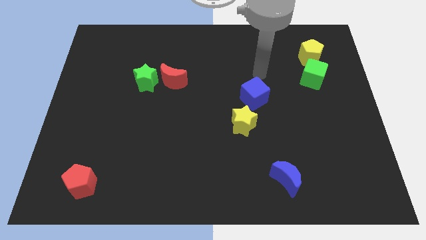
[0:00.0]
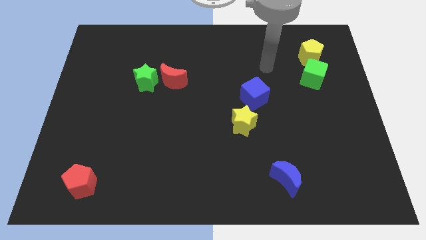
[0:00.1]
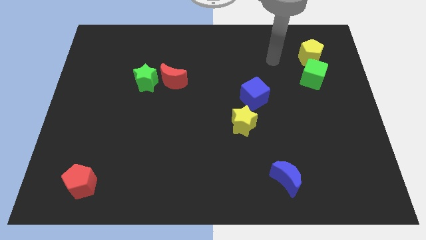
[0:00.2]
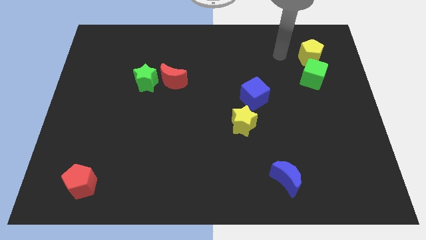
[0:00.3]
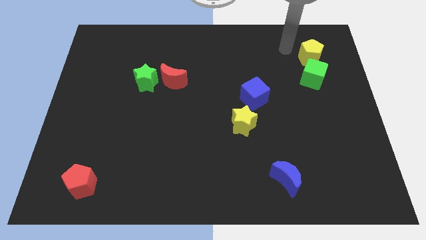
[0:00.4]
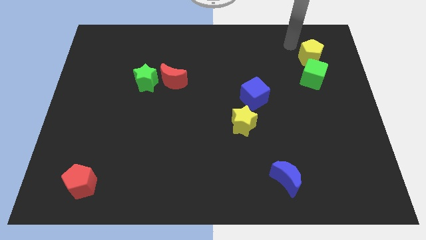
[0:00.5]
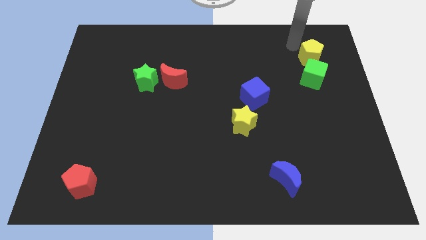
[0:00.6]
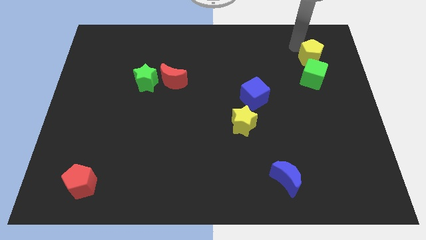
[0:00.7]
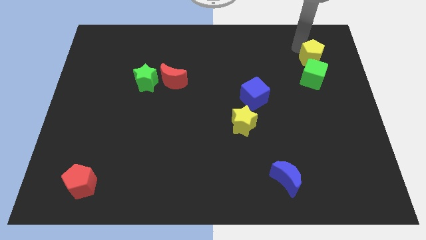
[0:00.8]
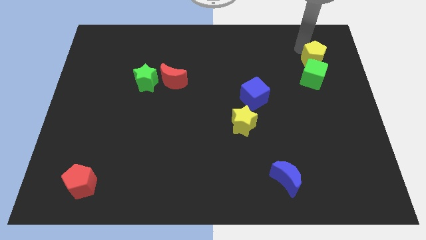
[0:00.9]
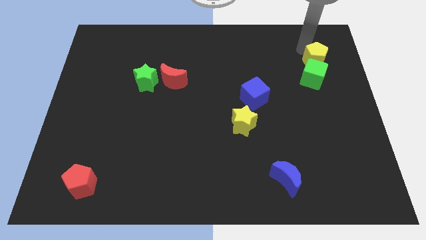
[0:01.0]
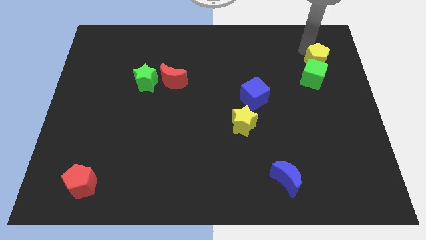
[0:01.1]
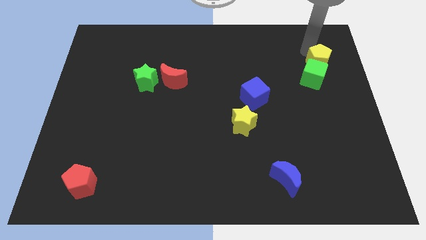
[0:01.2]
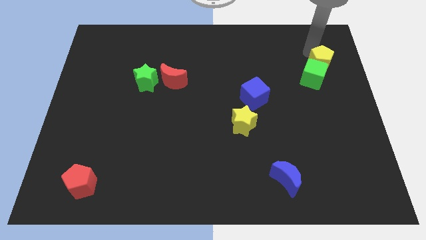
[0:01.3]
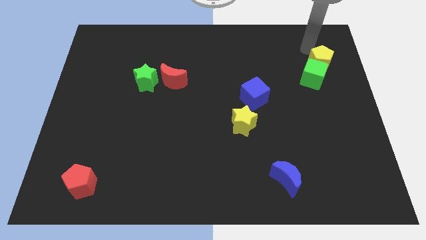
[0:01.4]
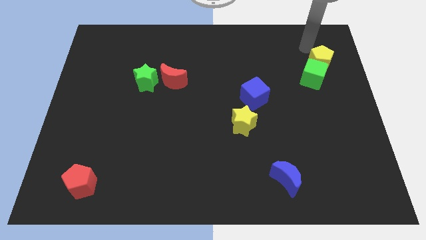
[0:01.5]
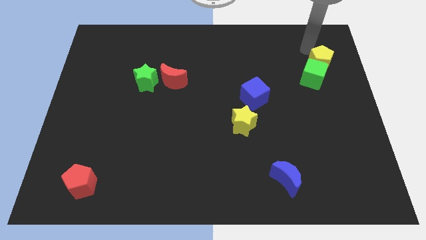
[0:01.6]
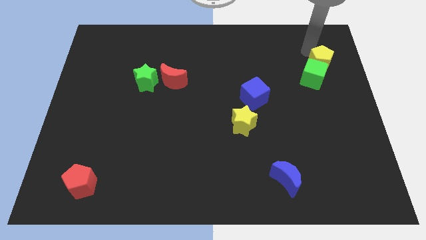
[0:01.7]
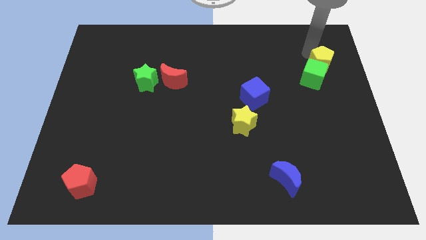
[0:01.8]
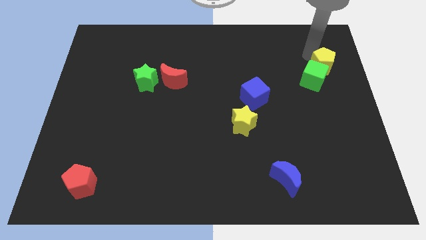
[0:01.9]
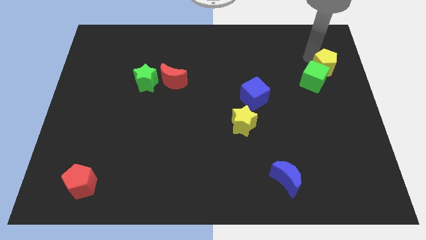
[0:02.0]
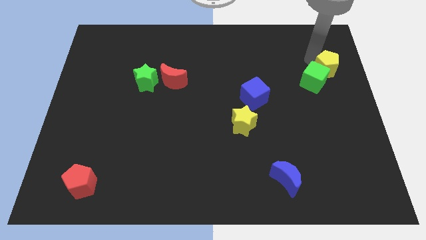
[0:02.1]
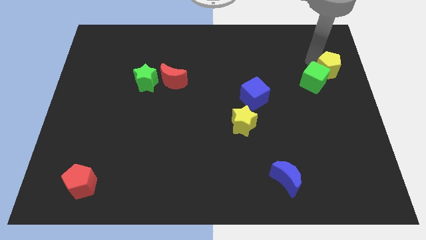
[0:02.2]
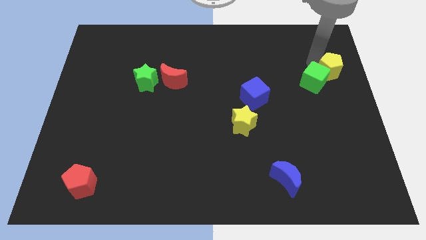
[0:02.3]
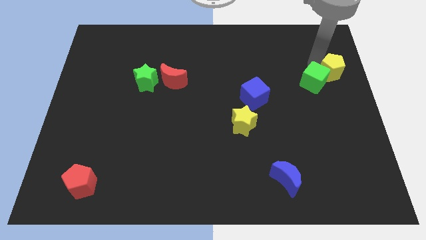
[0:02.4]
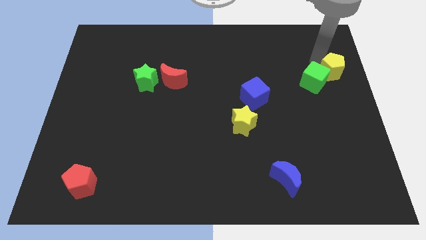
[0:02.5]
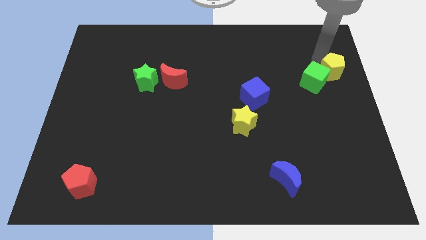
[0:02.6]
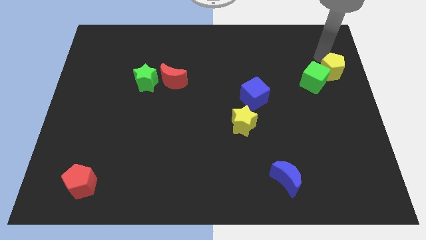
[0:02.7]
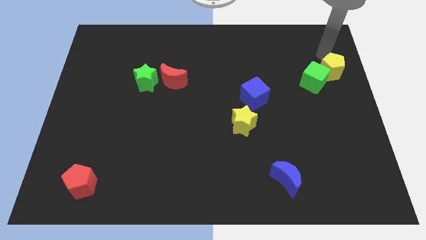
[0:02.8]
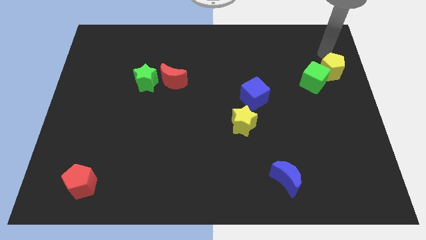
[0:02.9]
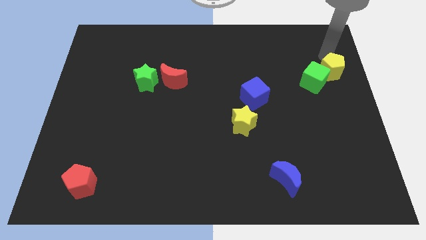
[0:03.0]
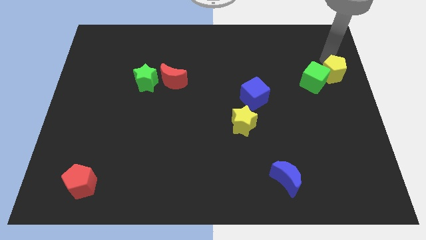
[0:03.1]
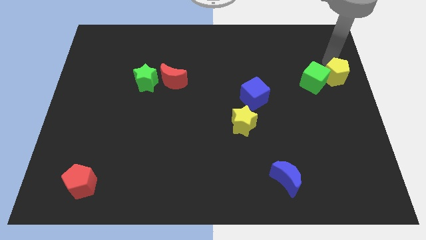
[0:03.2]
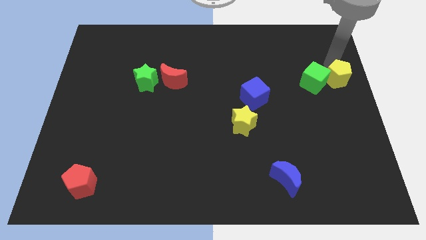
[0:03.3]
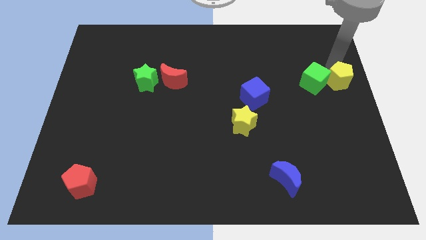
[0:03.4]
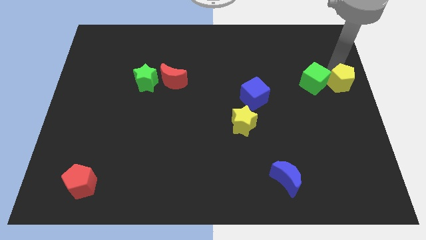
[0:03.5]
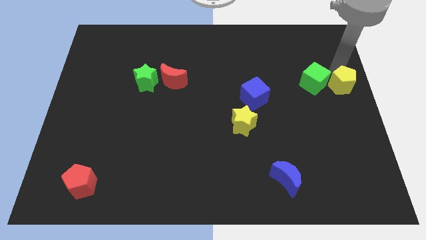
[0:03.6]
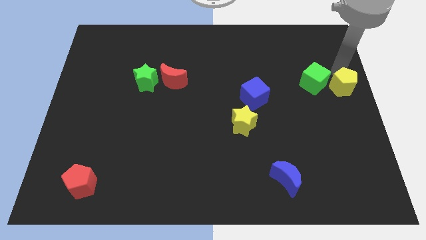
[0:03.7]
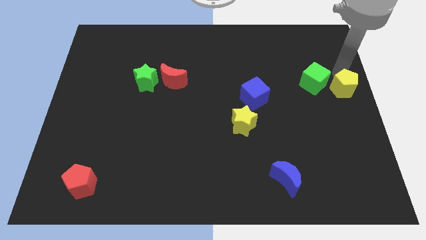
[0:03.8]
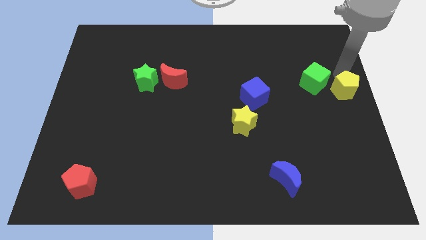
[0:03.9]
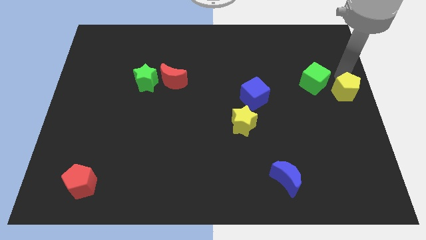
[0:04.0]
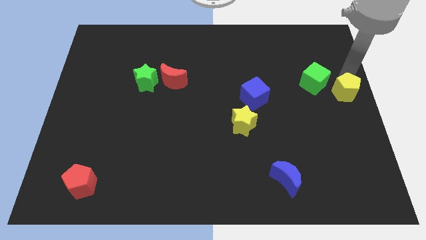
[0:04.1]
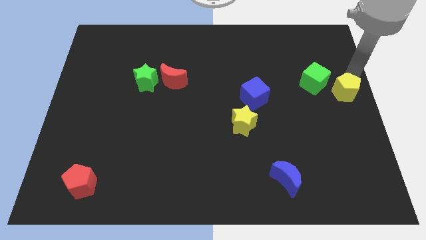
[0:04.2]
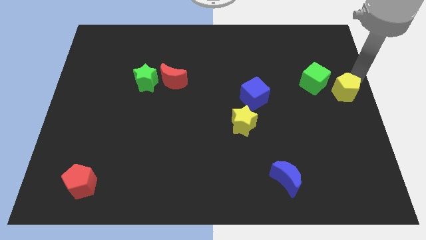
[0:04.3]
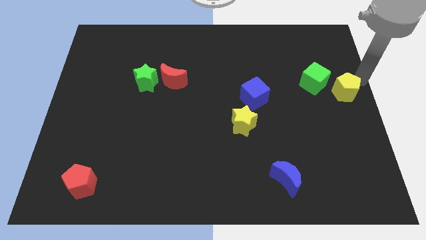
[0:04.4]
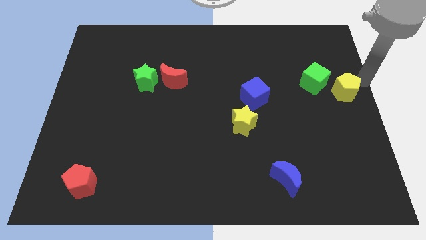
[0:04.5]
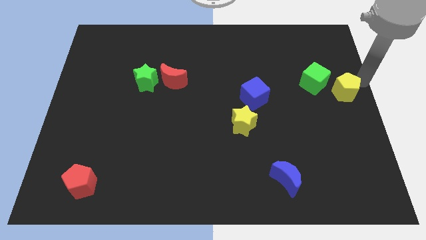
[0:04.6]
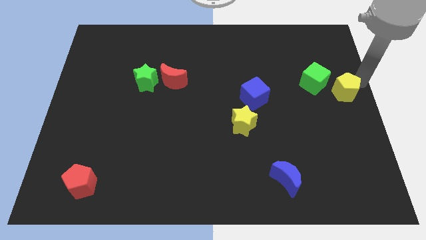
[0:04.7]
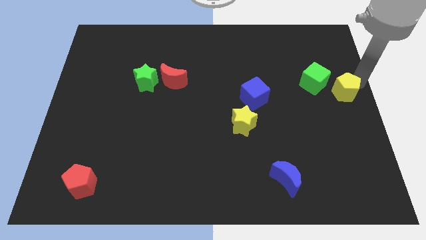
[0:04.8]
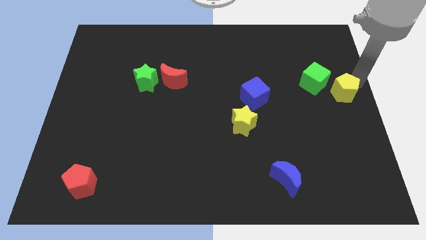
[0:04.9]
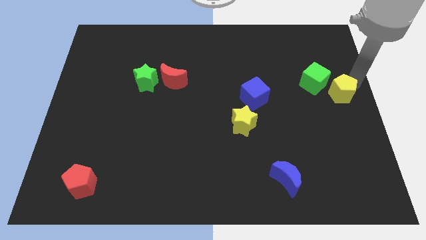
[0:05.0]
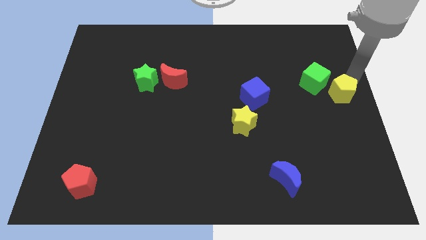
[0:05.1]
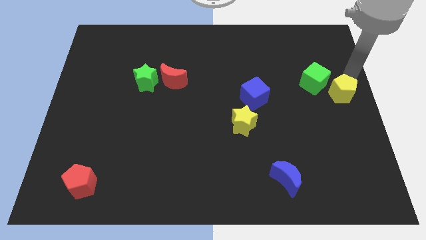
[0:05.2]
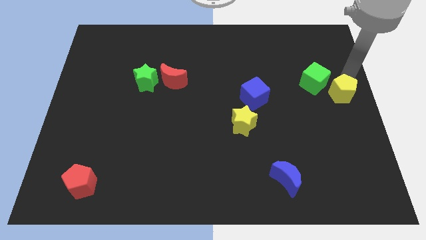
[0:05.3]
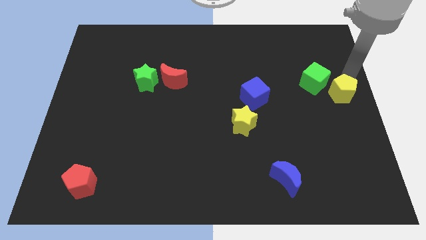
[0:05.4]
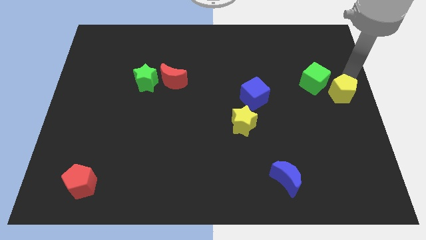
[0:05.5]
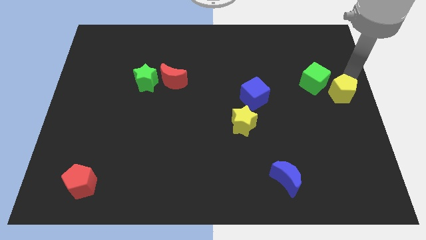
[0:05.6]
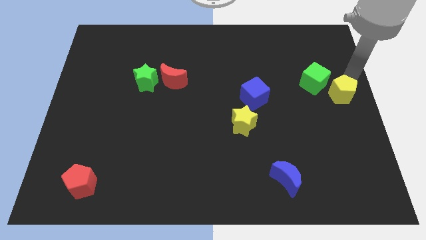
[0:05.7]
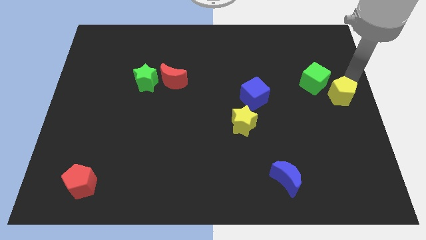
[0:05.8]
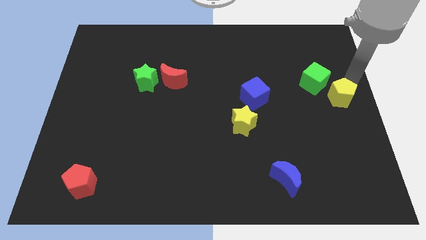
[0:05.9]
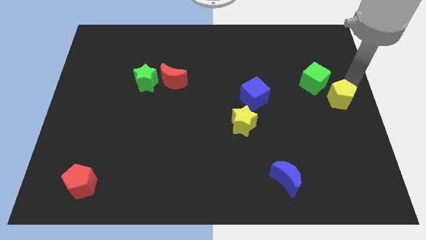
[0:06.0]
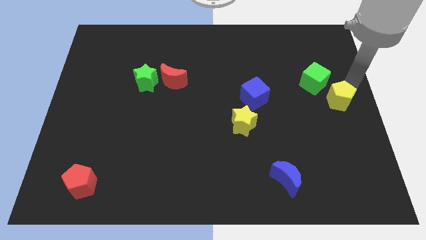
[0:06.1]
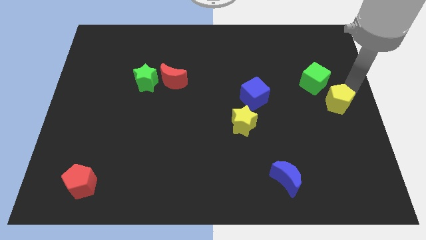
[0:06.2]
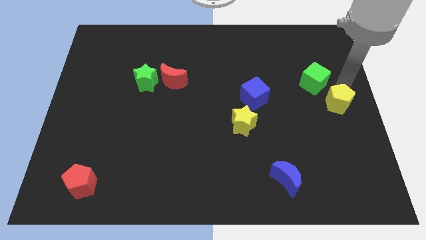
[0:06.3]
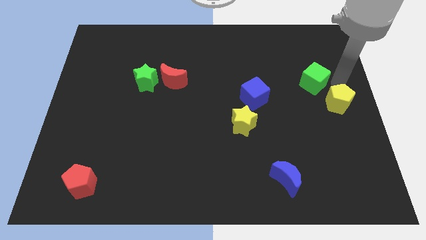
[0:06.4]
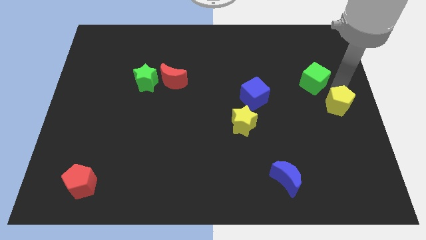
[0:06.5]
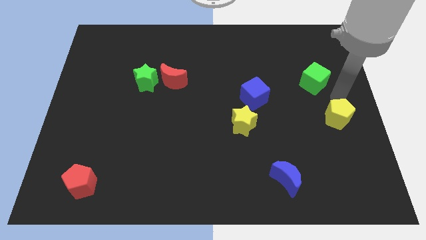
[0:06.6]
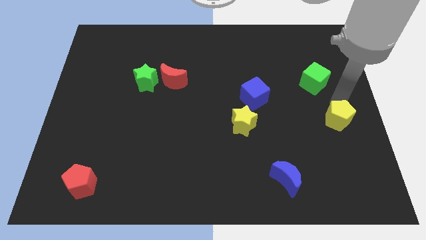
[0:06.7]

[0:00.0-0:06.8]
push the yellow pentagon down

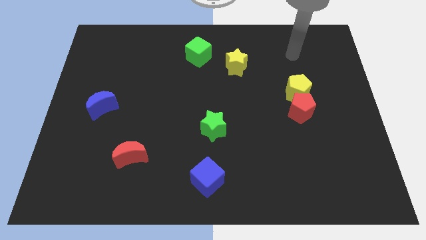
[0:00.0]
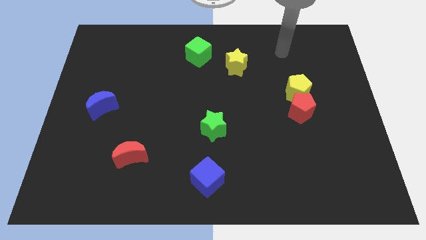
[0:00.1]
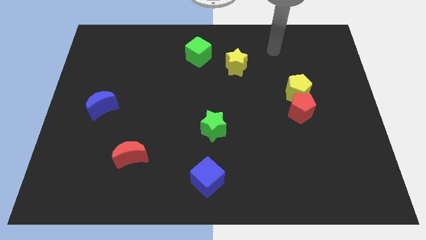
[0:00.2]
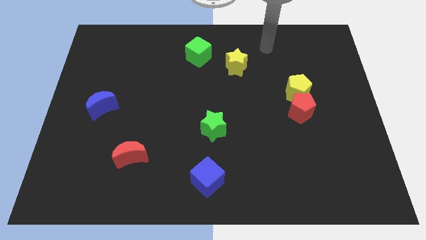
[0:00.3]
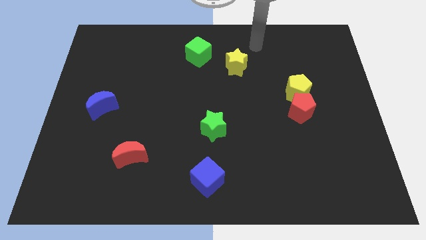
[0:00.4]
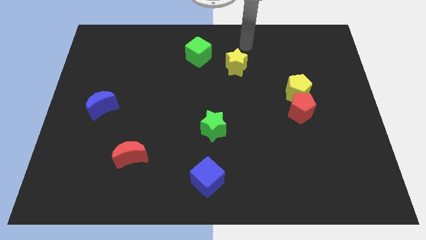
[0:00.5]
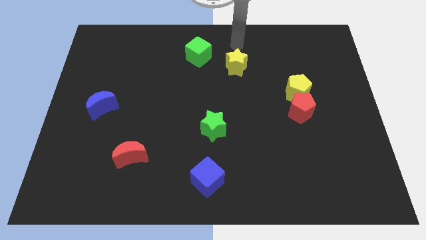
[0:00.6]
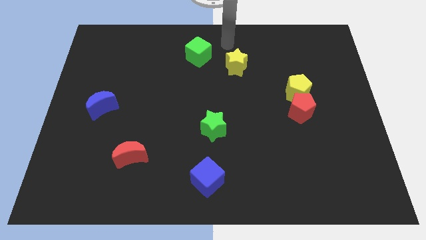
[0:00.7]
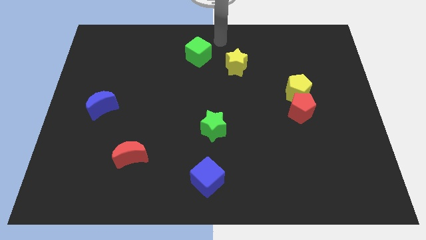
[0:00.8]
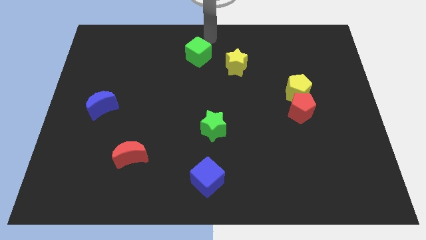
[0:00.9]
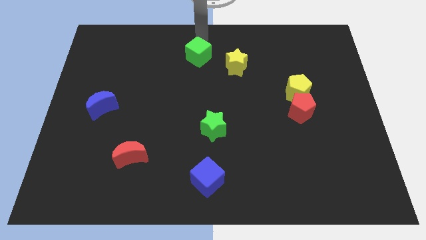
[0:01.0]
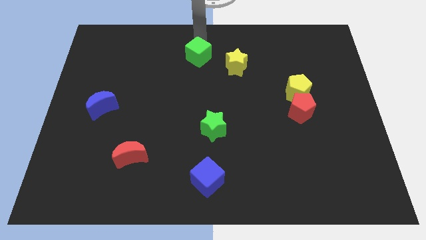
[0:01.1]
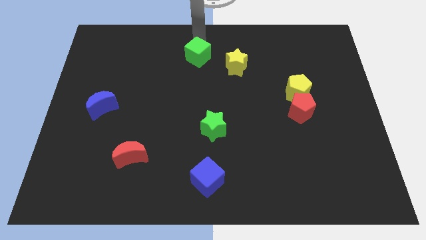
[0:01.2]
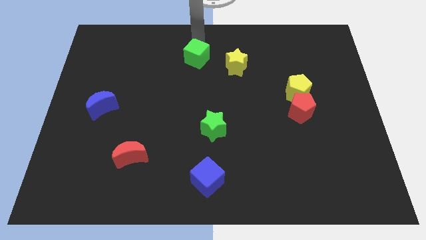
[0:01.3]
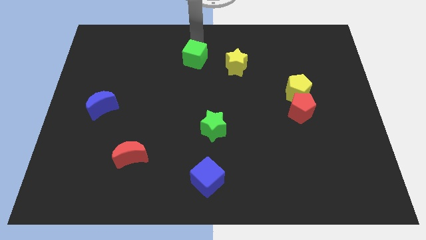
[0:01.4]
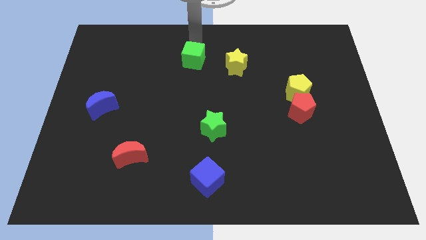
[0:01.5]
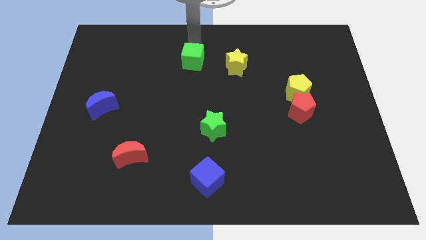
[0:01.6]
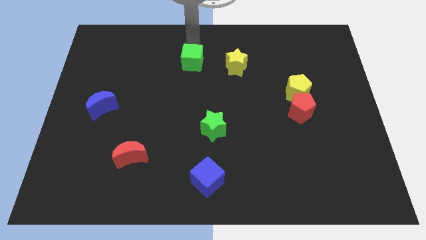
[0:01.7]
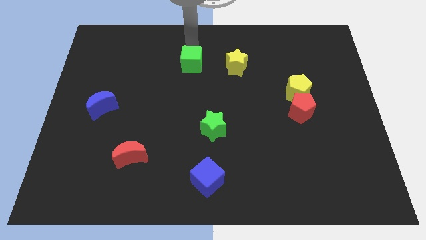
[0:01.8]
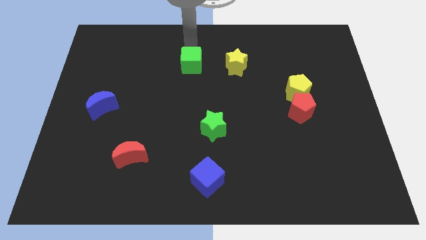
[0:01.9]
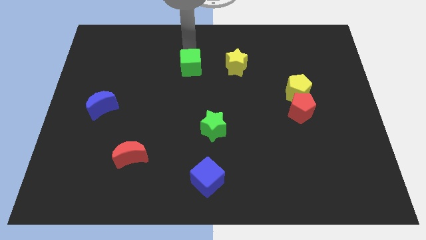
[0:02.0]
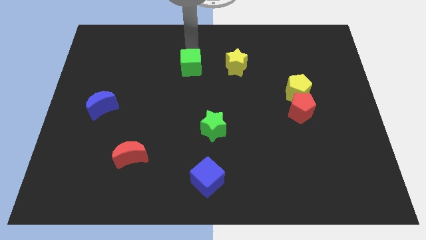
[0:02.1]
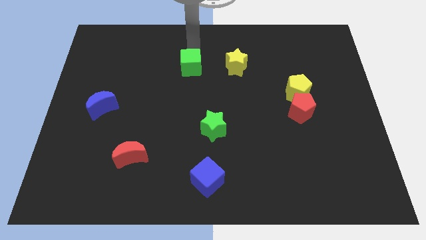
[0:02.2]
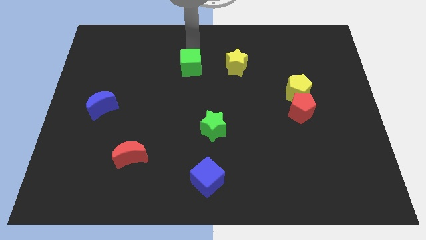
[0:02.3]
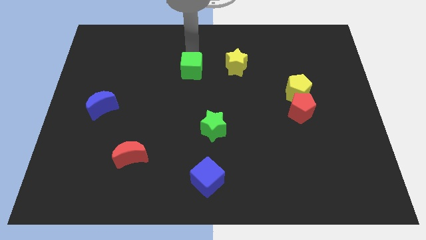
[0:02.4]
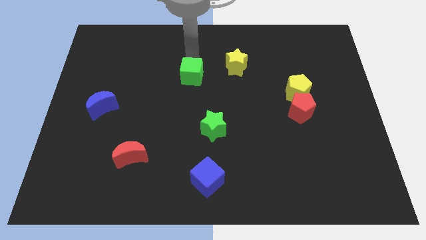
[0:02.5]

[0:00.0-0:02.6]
slide the green cube down slightly
